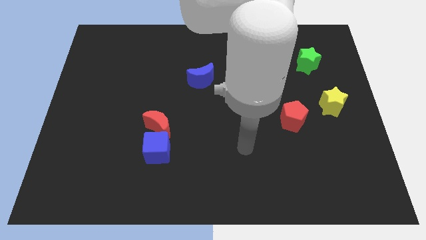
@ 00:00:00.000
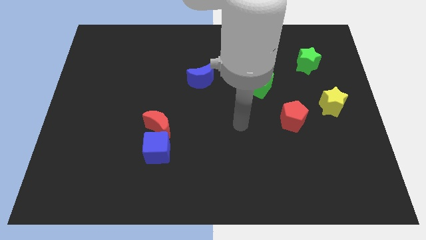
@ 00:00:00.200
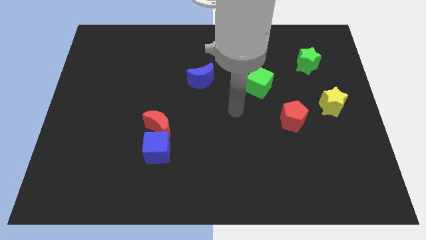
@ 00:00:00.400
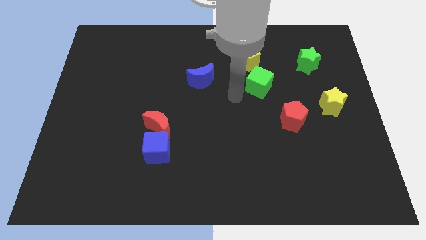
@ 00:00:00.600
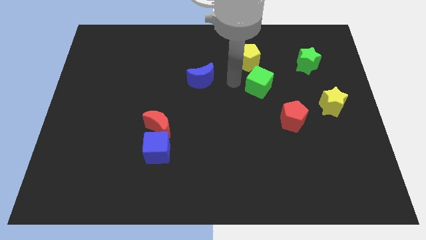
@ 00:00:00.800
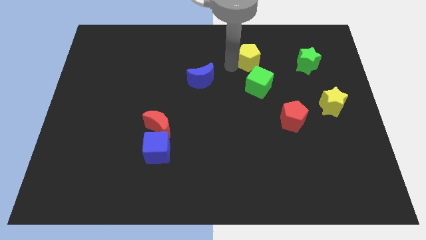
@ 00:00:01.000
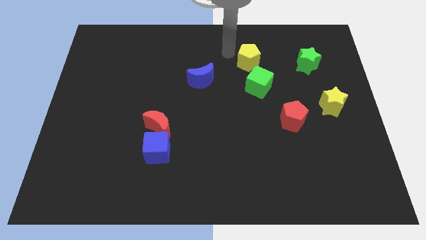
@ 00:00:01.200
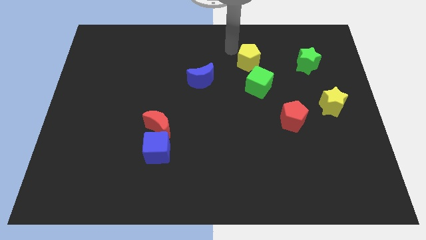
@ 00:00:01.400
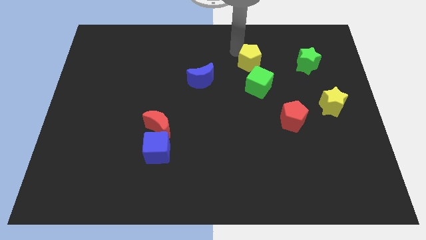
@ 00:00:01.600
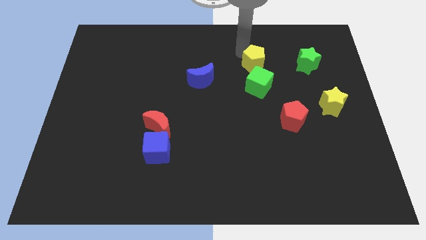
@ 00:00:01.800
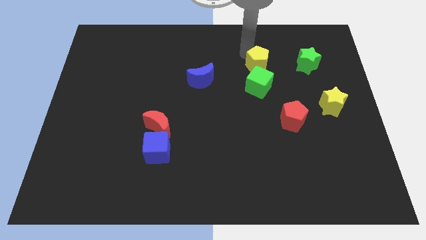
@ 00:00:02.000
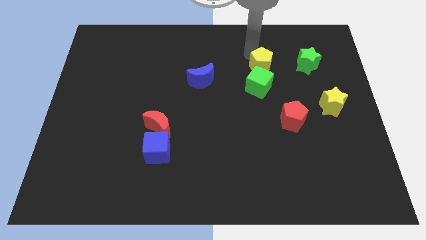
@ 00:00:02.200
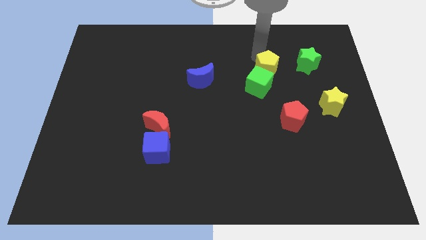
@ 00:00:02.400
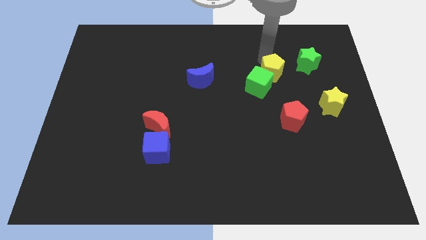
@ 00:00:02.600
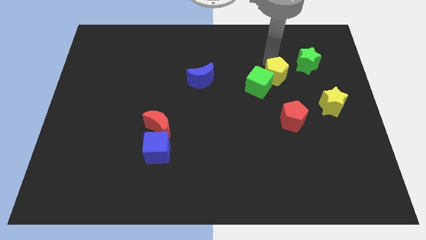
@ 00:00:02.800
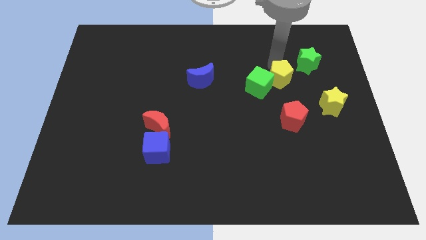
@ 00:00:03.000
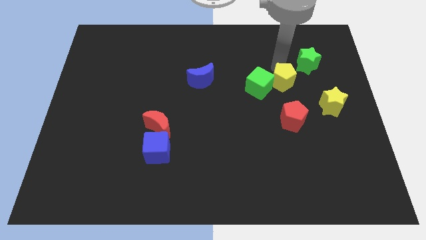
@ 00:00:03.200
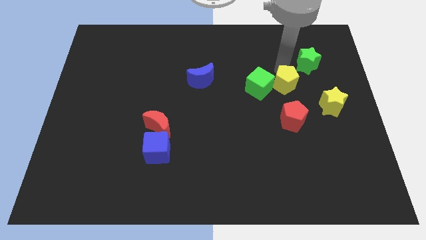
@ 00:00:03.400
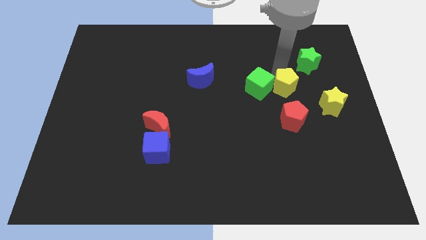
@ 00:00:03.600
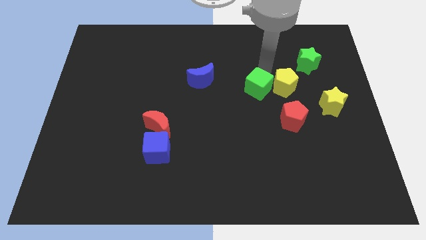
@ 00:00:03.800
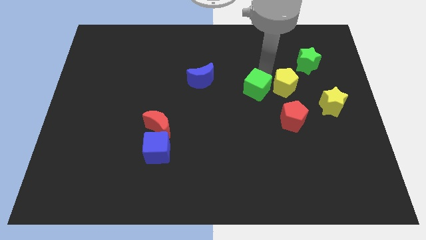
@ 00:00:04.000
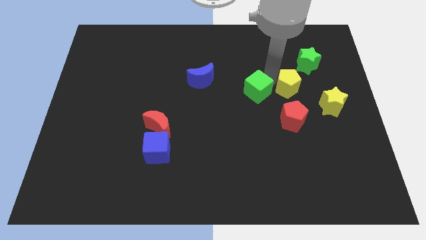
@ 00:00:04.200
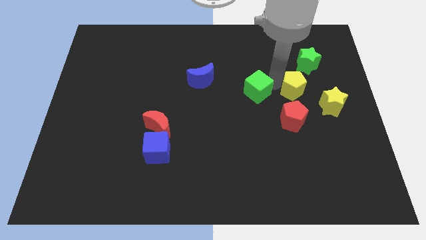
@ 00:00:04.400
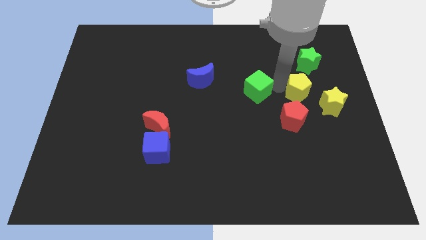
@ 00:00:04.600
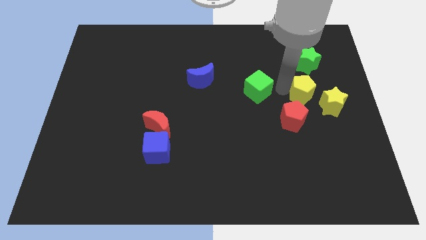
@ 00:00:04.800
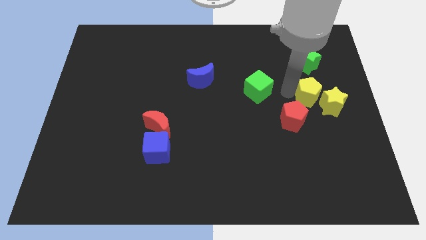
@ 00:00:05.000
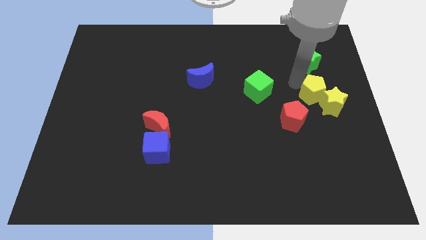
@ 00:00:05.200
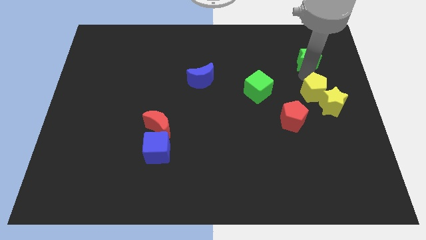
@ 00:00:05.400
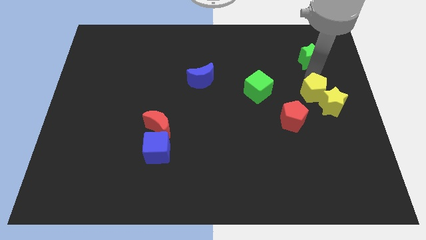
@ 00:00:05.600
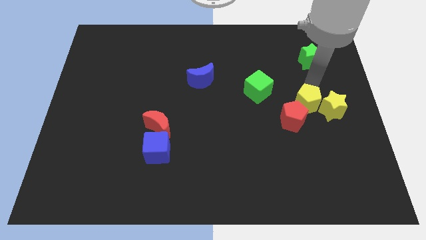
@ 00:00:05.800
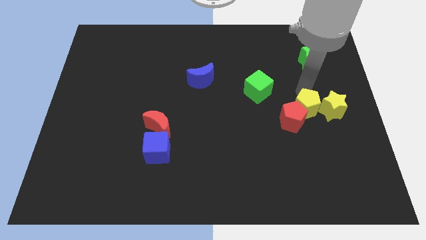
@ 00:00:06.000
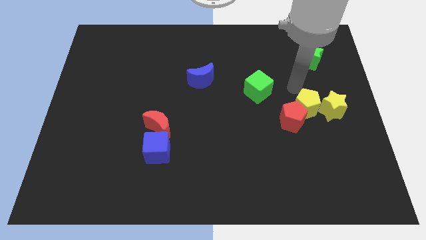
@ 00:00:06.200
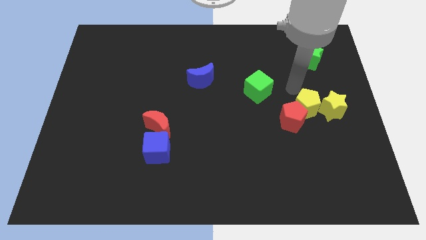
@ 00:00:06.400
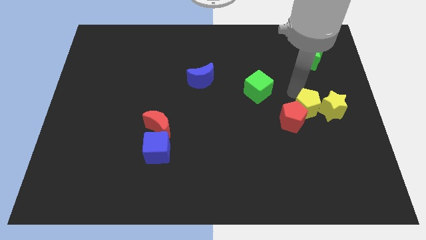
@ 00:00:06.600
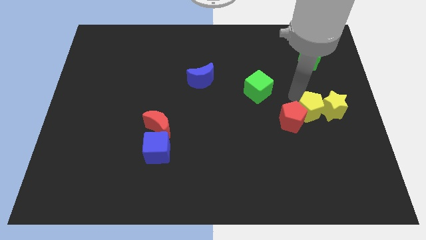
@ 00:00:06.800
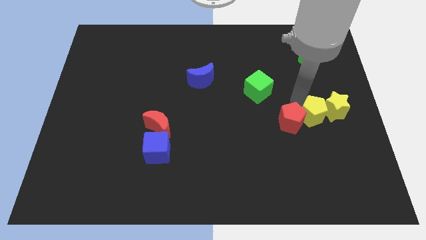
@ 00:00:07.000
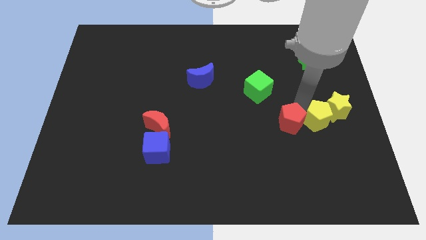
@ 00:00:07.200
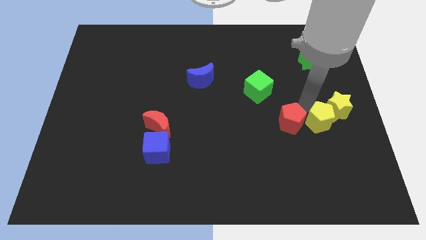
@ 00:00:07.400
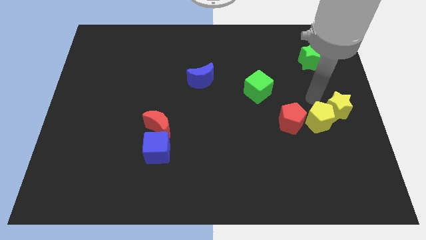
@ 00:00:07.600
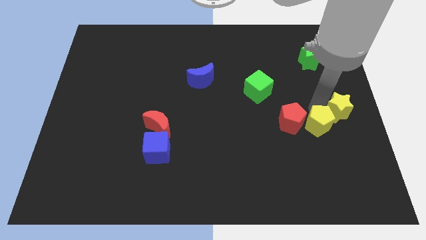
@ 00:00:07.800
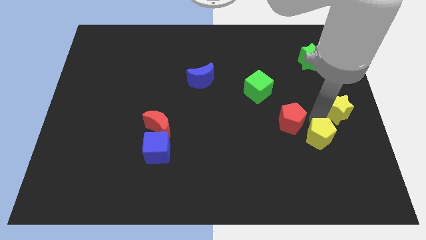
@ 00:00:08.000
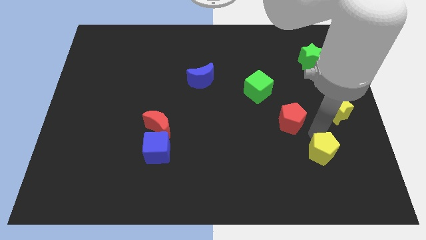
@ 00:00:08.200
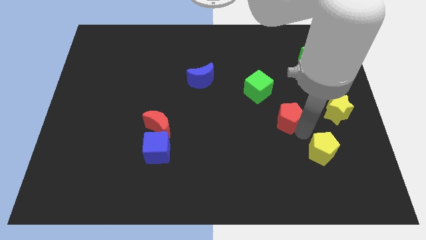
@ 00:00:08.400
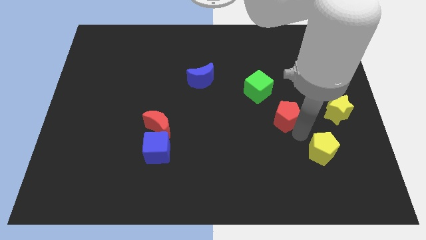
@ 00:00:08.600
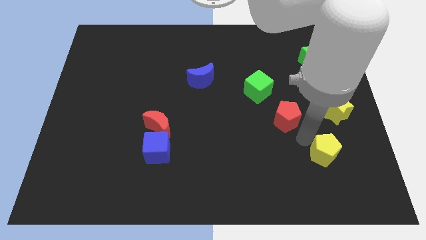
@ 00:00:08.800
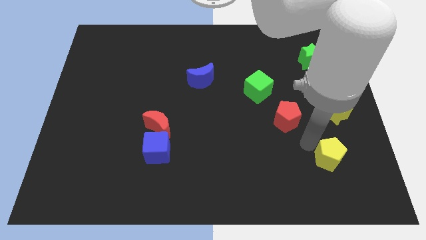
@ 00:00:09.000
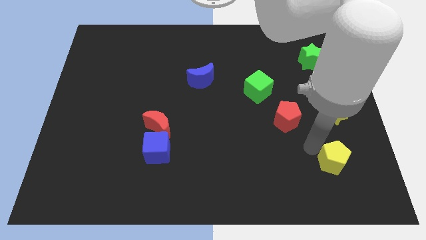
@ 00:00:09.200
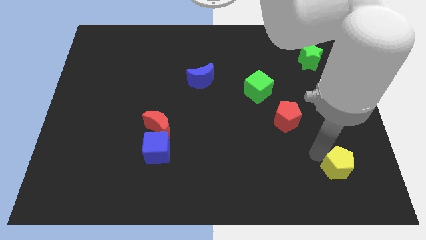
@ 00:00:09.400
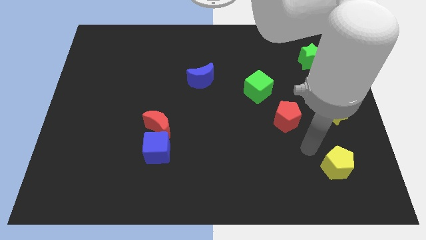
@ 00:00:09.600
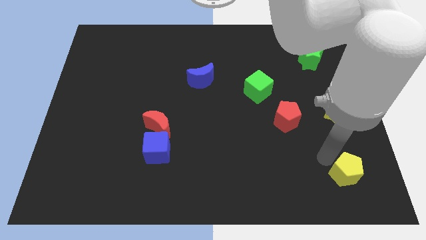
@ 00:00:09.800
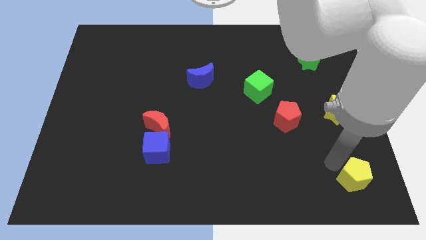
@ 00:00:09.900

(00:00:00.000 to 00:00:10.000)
move the yellow pentagon to the lower right corner
